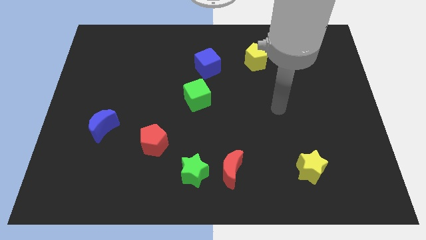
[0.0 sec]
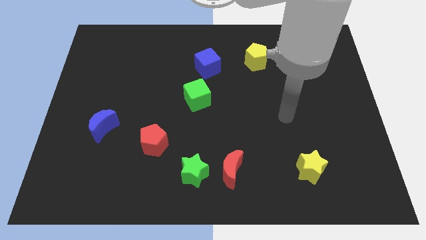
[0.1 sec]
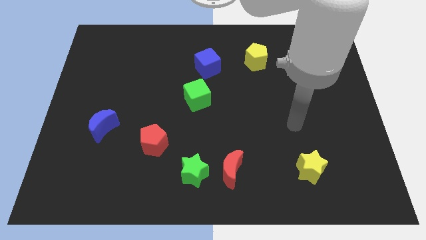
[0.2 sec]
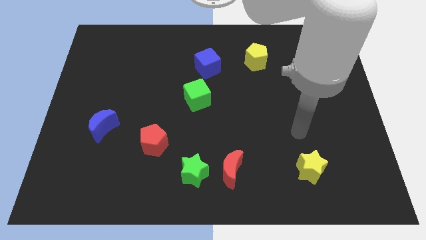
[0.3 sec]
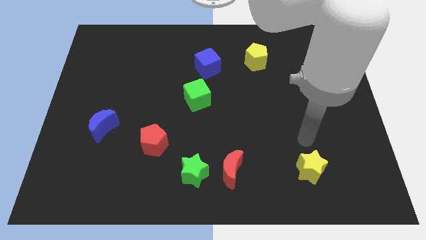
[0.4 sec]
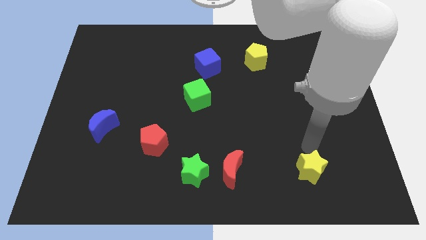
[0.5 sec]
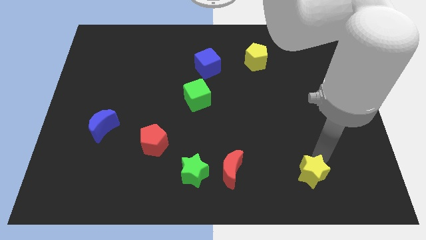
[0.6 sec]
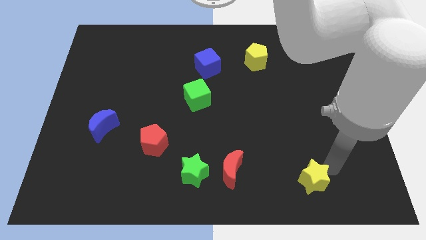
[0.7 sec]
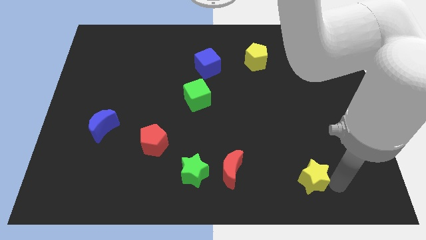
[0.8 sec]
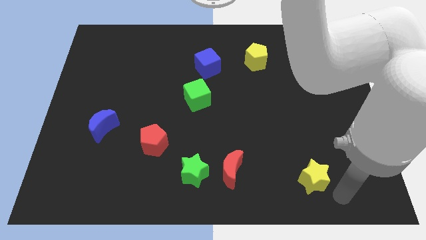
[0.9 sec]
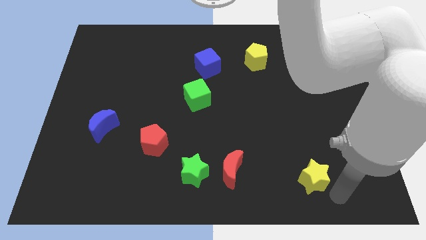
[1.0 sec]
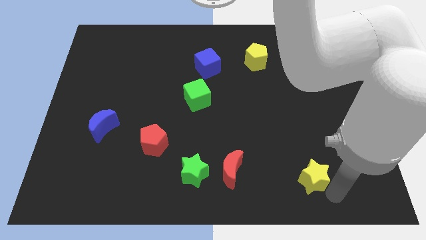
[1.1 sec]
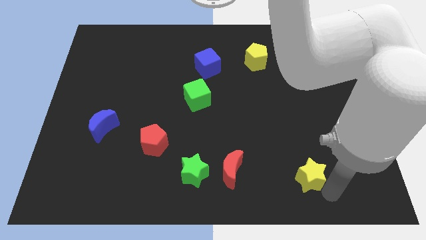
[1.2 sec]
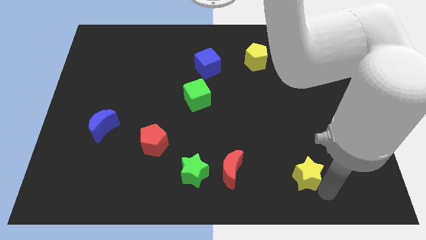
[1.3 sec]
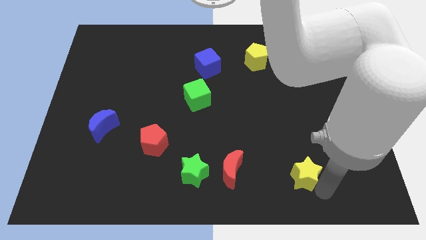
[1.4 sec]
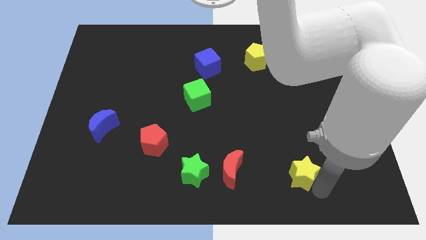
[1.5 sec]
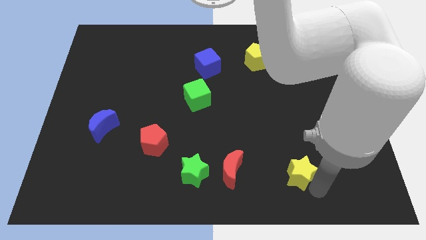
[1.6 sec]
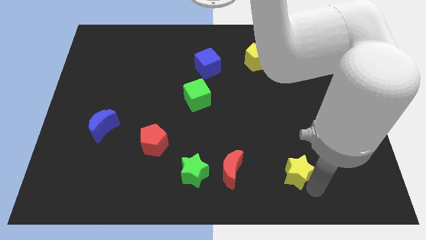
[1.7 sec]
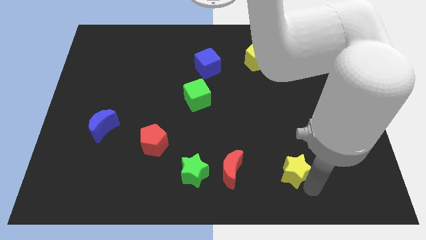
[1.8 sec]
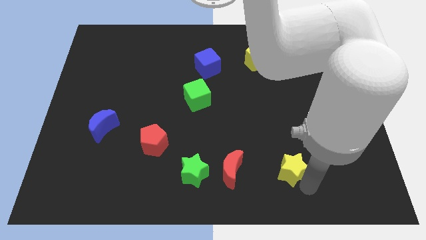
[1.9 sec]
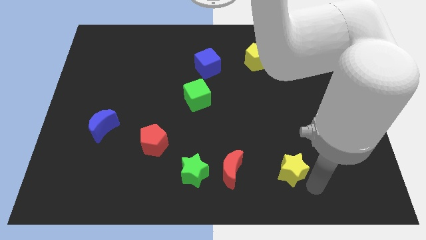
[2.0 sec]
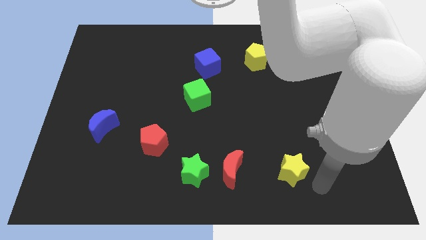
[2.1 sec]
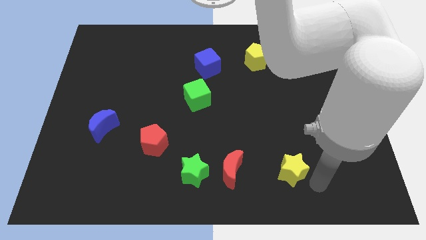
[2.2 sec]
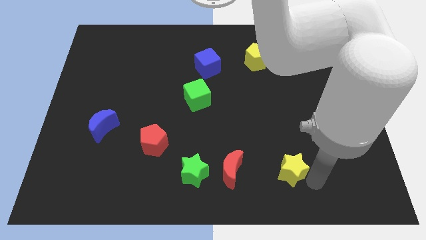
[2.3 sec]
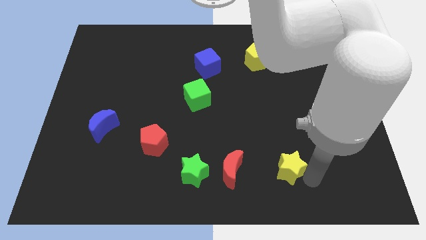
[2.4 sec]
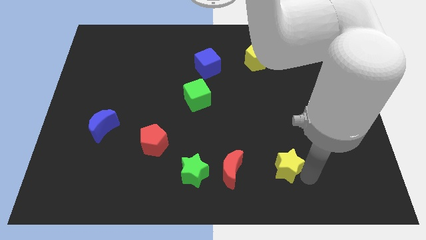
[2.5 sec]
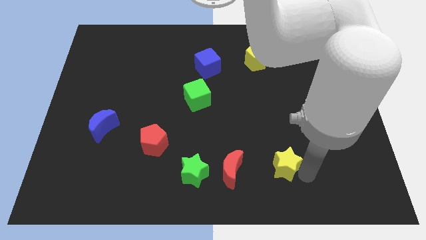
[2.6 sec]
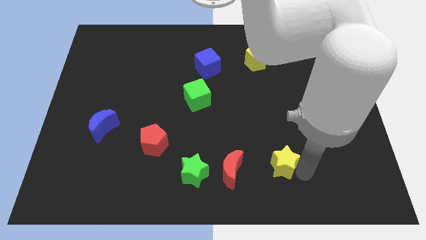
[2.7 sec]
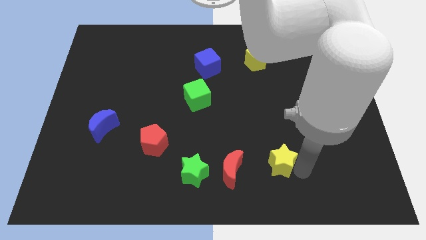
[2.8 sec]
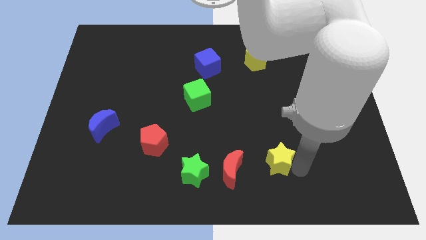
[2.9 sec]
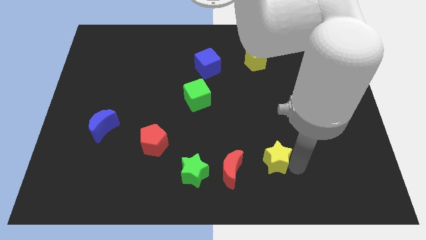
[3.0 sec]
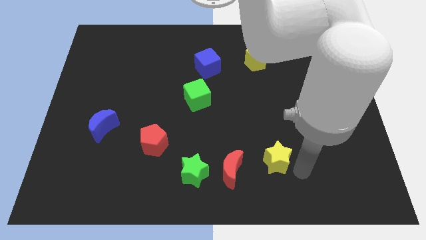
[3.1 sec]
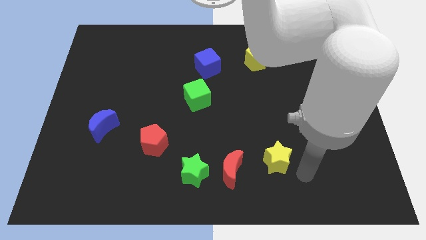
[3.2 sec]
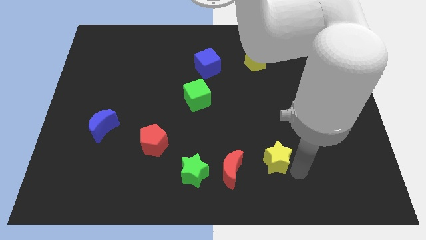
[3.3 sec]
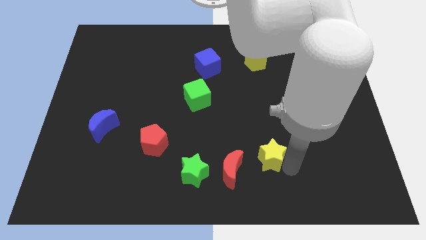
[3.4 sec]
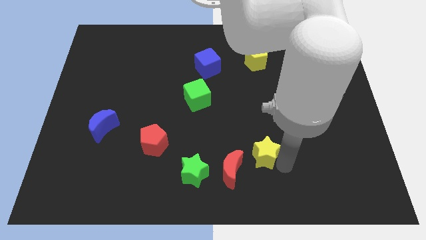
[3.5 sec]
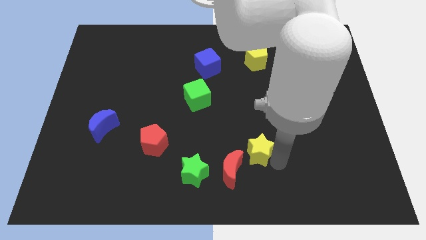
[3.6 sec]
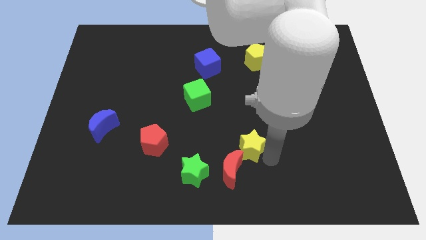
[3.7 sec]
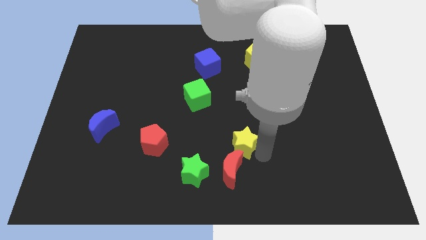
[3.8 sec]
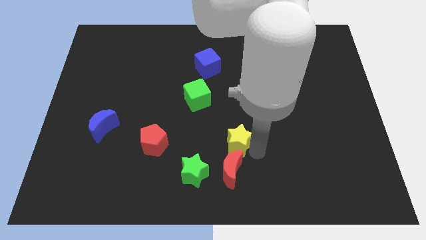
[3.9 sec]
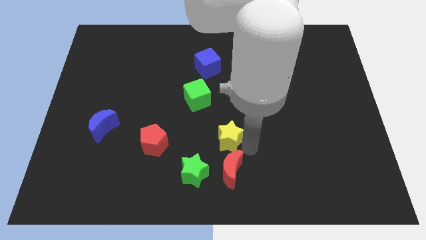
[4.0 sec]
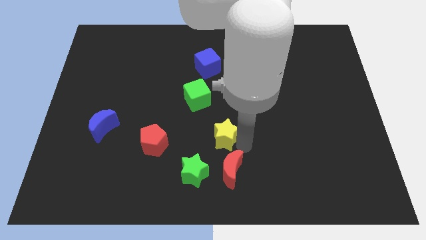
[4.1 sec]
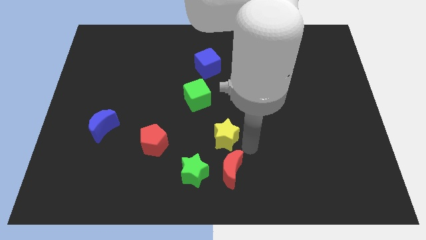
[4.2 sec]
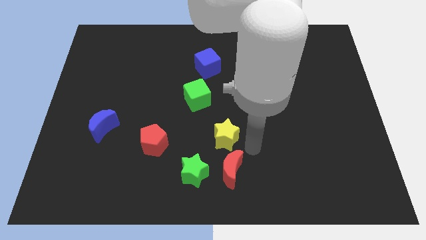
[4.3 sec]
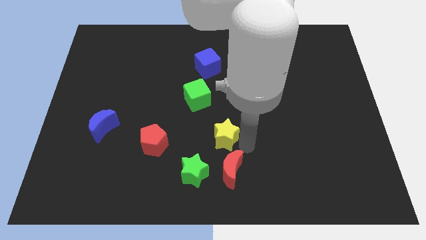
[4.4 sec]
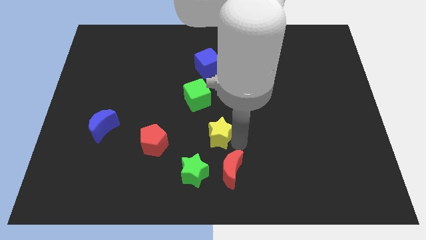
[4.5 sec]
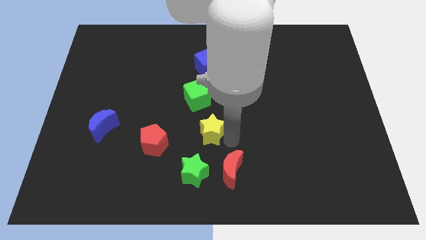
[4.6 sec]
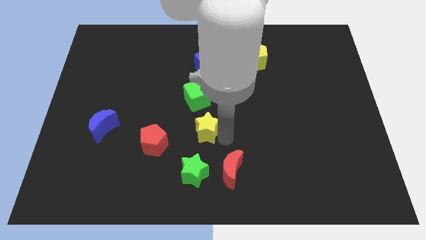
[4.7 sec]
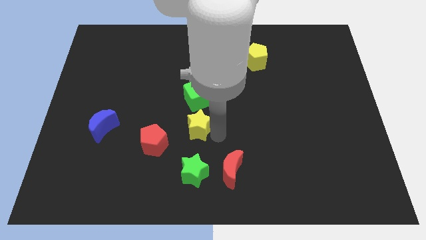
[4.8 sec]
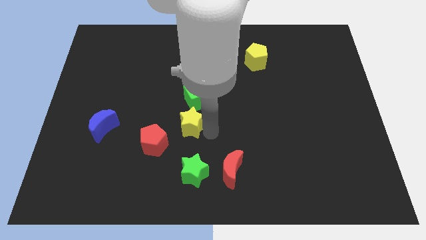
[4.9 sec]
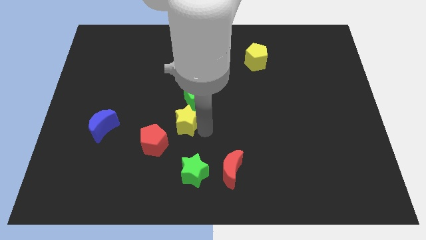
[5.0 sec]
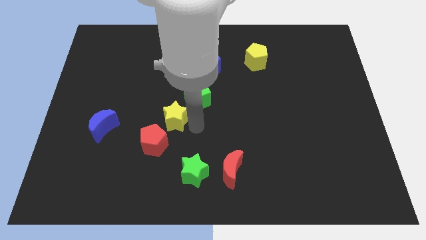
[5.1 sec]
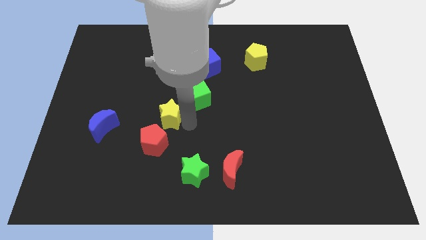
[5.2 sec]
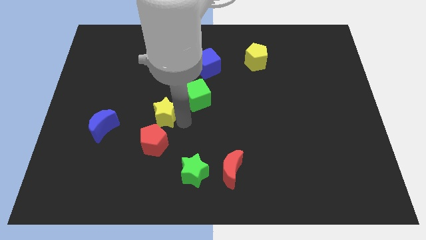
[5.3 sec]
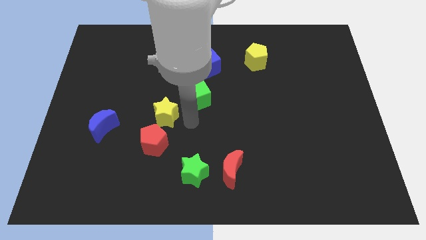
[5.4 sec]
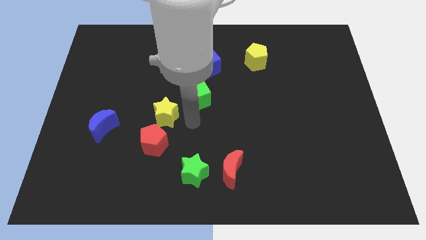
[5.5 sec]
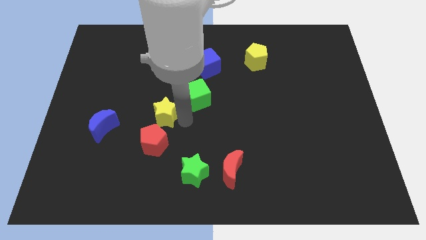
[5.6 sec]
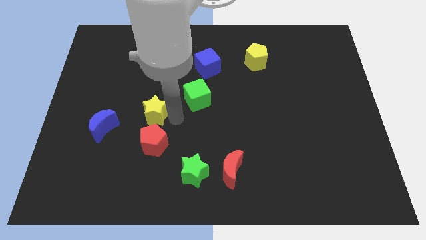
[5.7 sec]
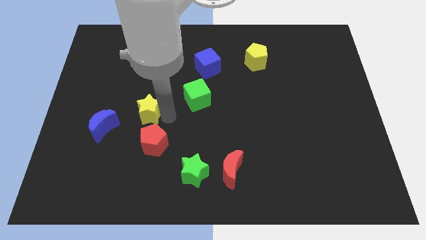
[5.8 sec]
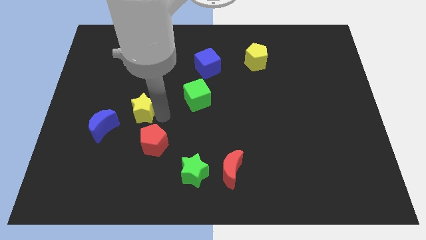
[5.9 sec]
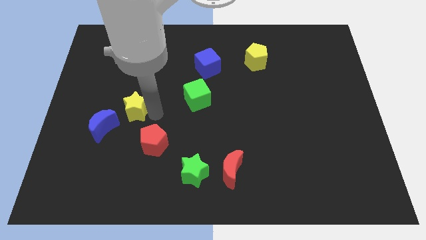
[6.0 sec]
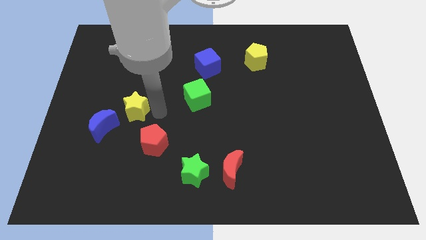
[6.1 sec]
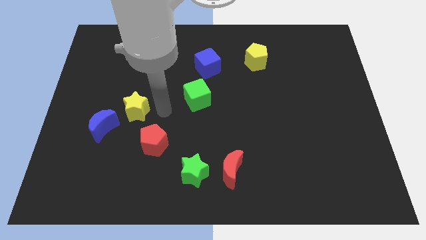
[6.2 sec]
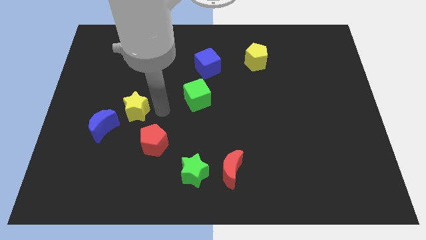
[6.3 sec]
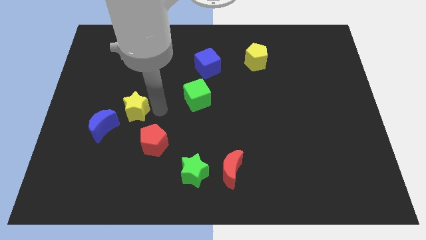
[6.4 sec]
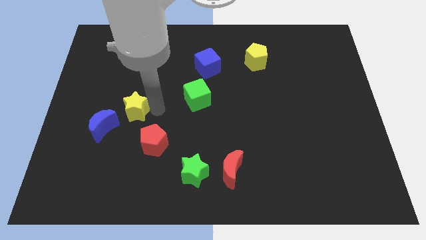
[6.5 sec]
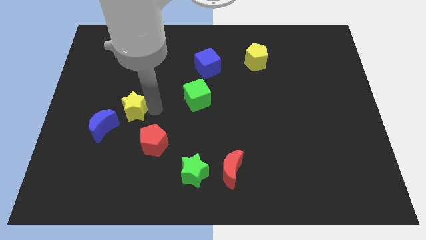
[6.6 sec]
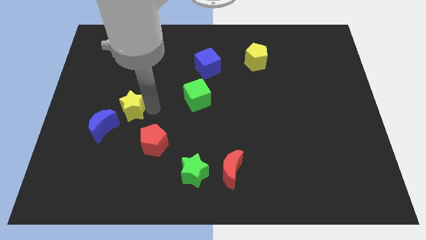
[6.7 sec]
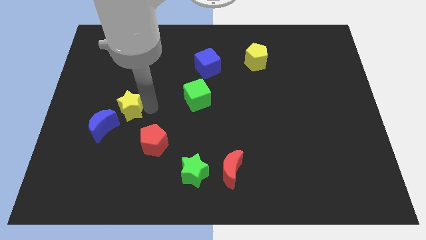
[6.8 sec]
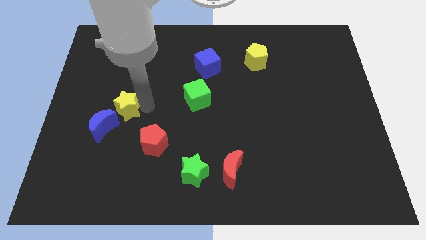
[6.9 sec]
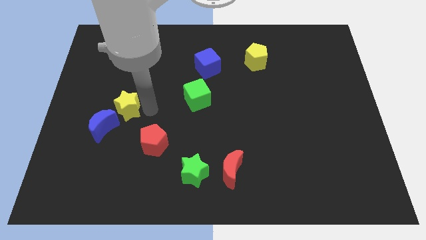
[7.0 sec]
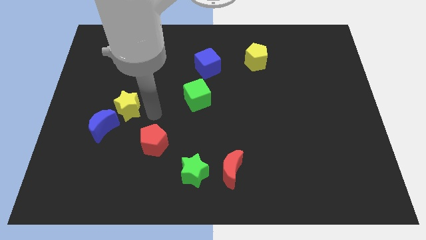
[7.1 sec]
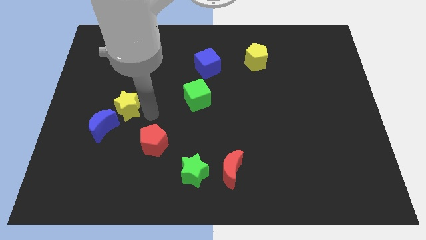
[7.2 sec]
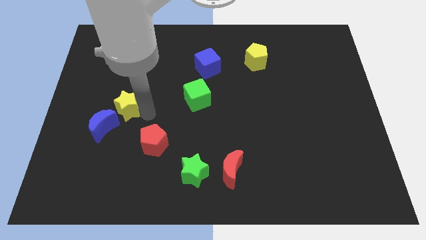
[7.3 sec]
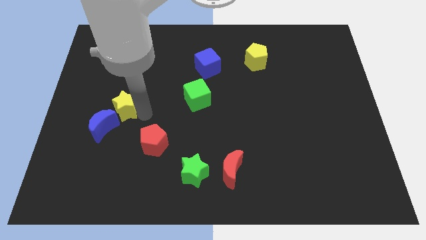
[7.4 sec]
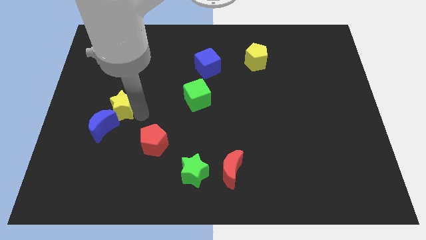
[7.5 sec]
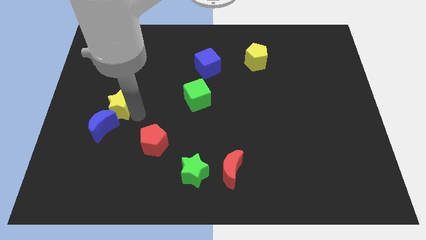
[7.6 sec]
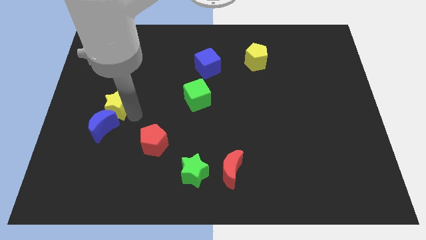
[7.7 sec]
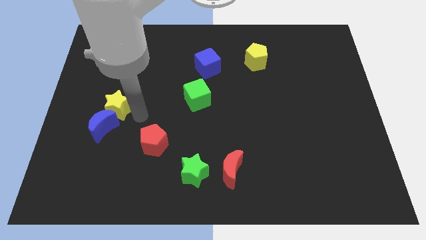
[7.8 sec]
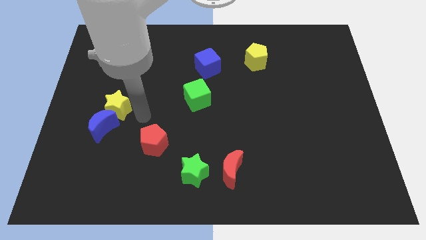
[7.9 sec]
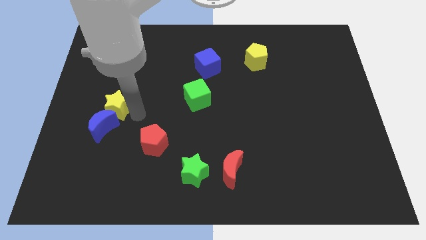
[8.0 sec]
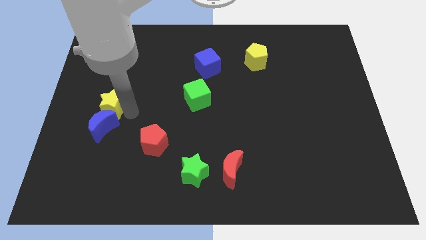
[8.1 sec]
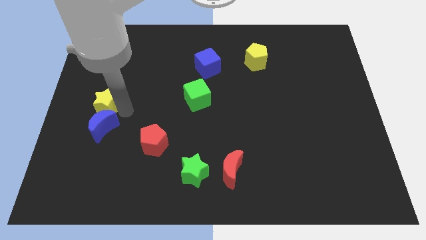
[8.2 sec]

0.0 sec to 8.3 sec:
slide the yellow star to the left side
